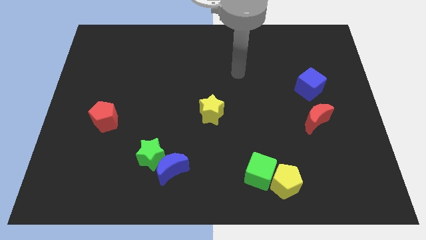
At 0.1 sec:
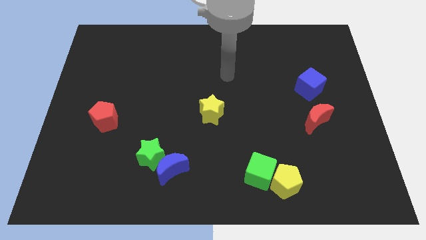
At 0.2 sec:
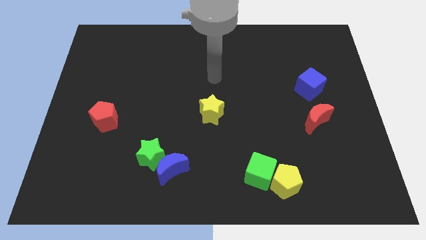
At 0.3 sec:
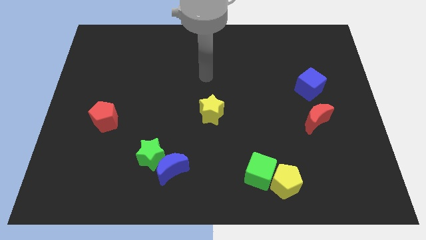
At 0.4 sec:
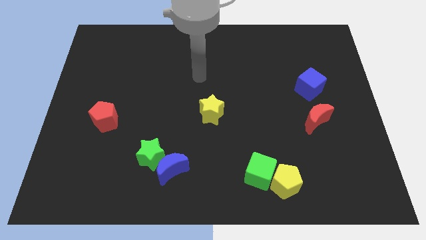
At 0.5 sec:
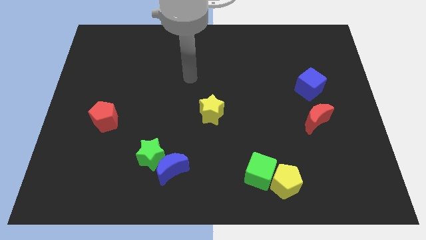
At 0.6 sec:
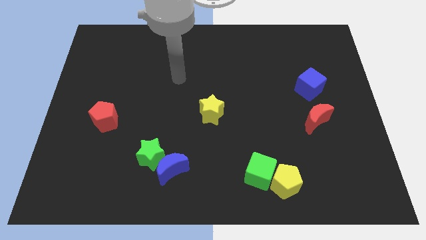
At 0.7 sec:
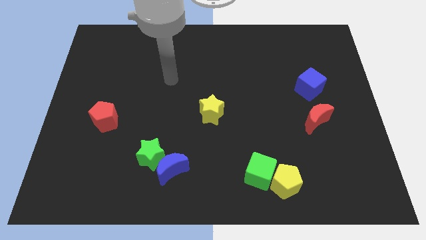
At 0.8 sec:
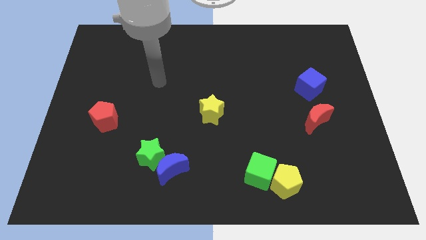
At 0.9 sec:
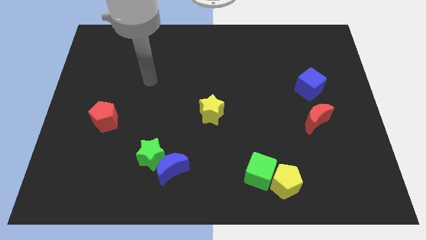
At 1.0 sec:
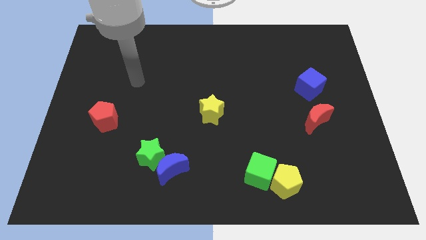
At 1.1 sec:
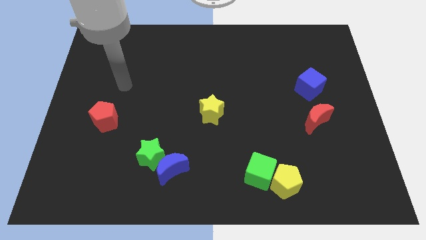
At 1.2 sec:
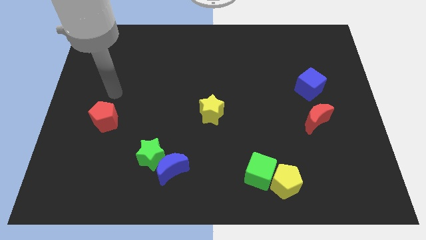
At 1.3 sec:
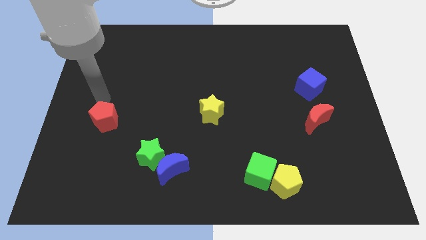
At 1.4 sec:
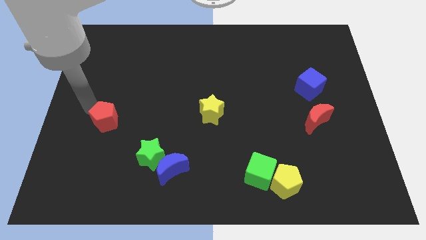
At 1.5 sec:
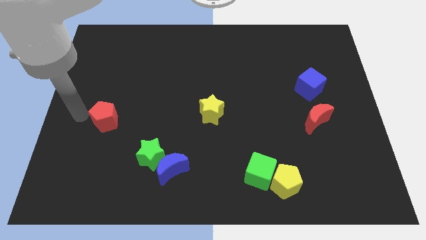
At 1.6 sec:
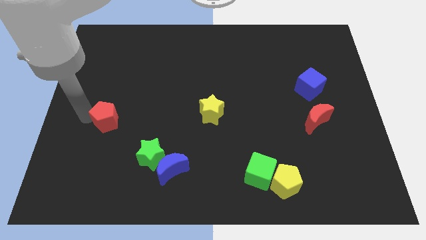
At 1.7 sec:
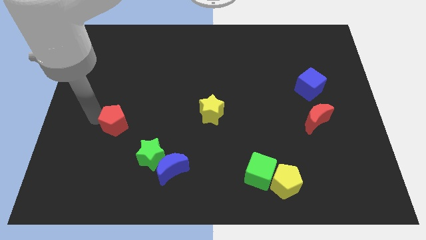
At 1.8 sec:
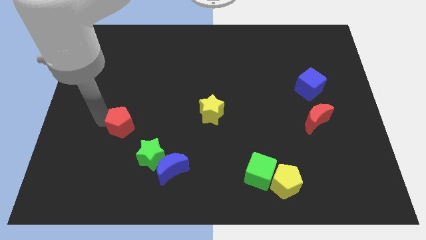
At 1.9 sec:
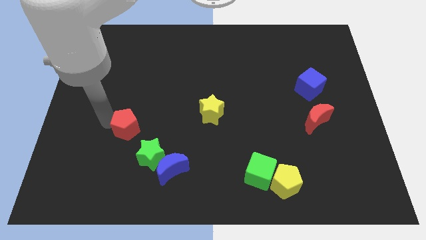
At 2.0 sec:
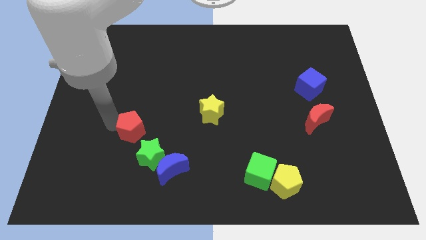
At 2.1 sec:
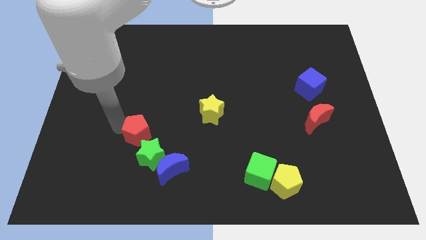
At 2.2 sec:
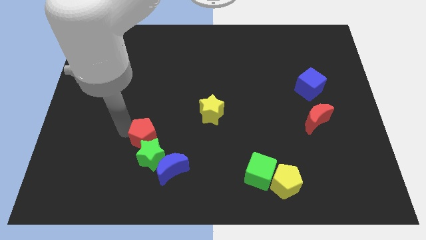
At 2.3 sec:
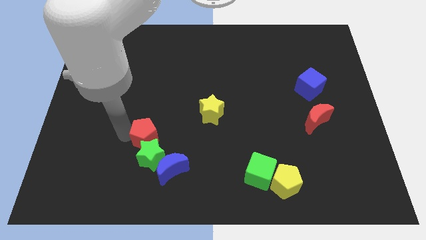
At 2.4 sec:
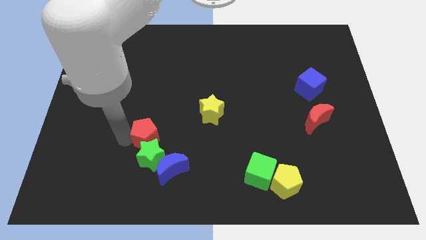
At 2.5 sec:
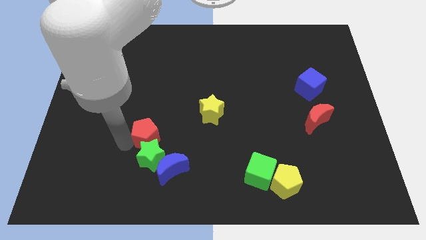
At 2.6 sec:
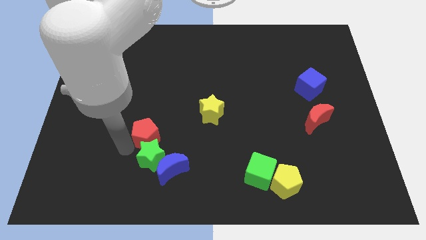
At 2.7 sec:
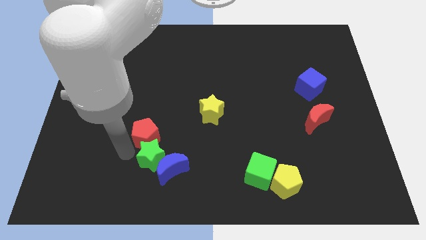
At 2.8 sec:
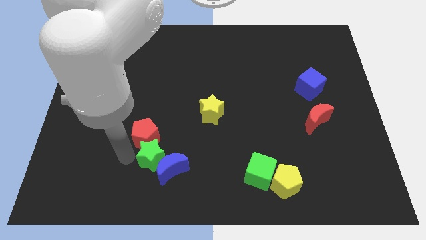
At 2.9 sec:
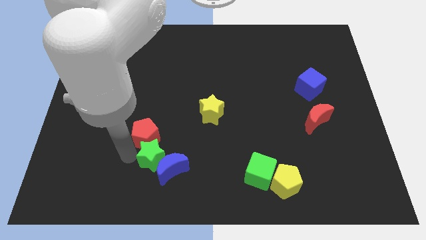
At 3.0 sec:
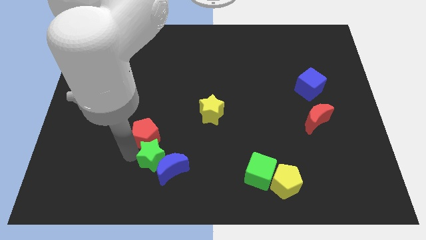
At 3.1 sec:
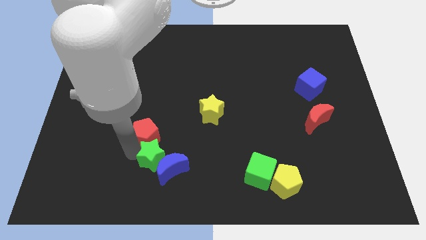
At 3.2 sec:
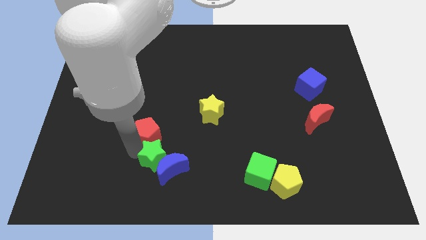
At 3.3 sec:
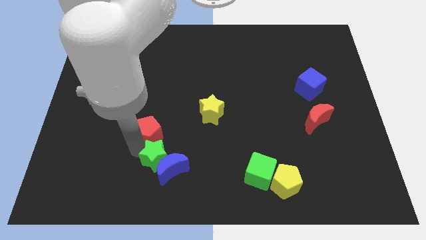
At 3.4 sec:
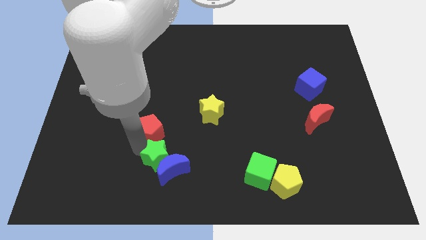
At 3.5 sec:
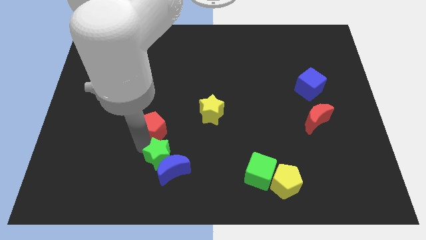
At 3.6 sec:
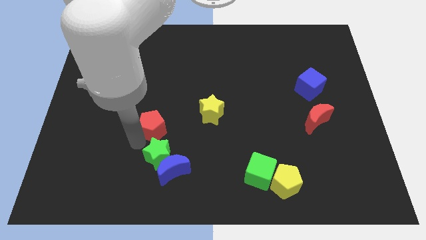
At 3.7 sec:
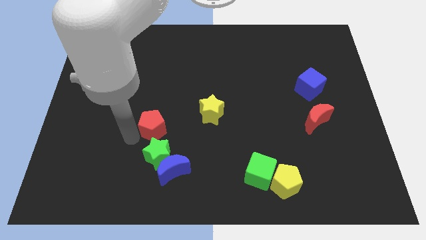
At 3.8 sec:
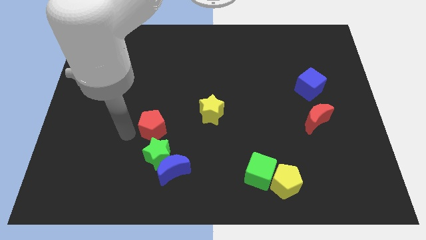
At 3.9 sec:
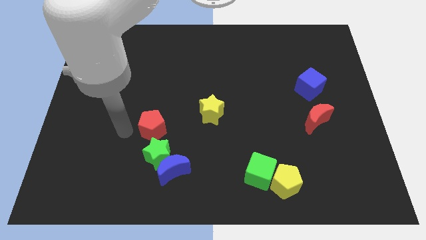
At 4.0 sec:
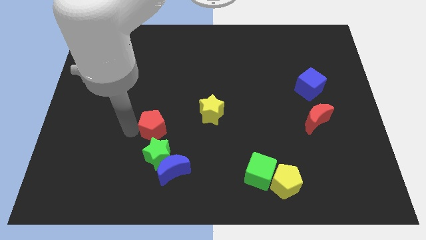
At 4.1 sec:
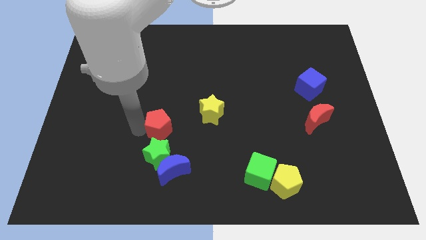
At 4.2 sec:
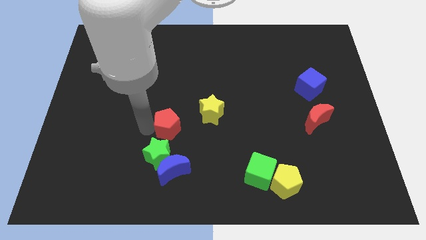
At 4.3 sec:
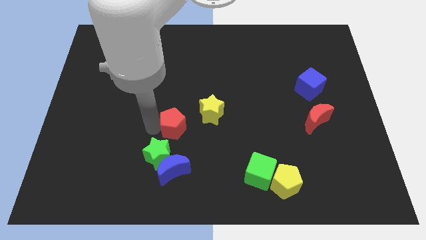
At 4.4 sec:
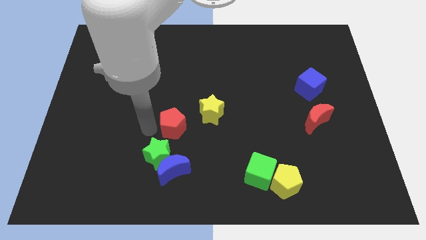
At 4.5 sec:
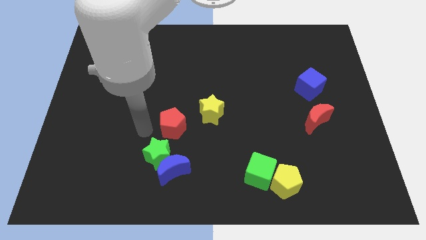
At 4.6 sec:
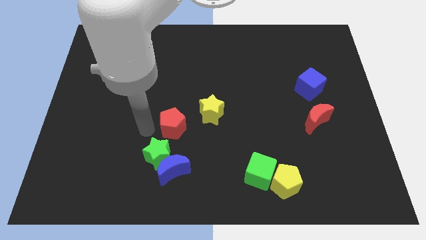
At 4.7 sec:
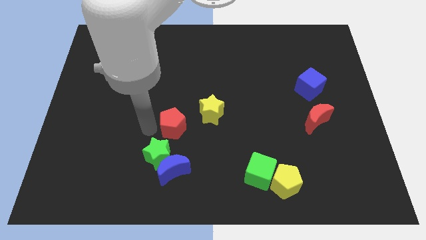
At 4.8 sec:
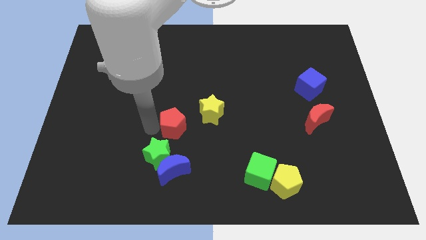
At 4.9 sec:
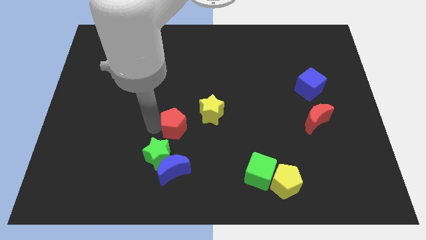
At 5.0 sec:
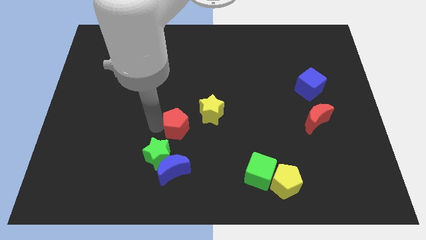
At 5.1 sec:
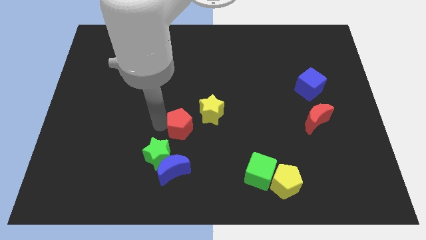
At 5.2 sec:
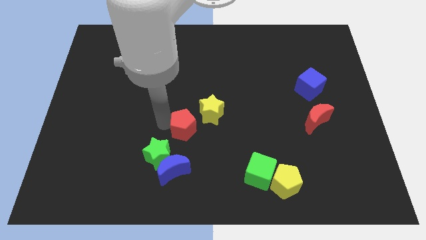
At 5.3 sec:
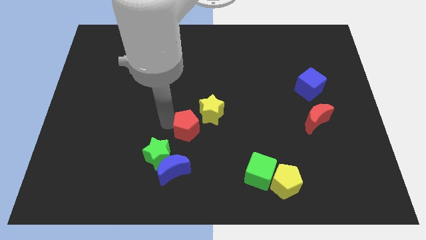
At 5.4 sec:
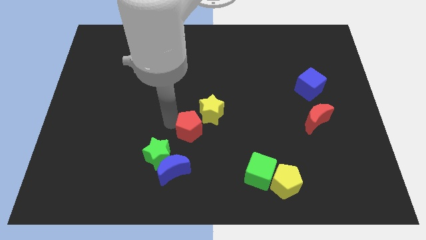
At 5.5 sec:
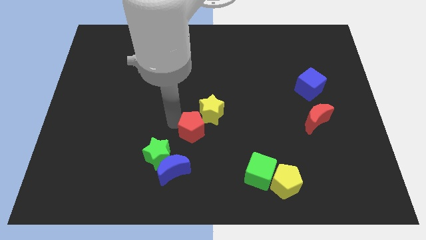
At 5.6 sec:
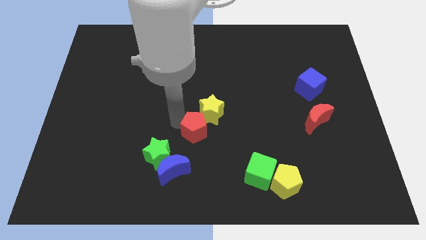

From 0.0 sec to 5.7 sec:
slide the red pentagon right

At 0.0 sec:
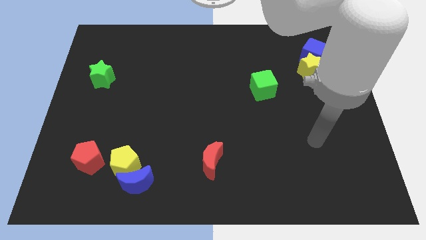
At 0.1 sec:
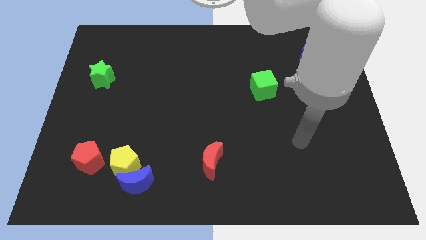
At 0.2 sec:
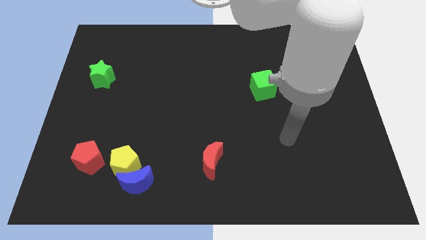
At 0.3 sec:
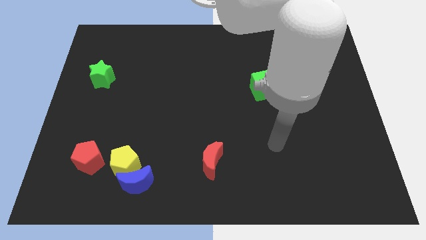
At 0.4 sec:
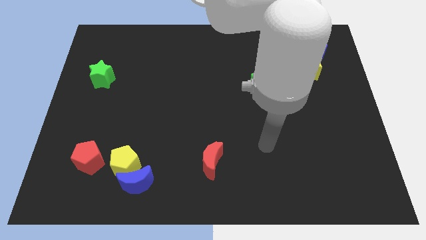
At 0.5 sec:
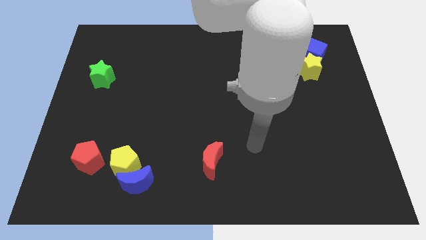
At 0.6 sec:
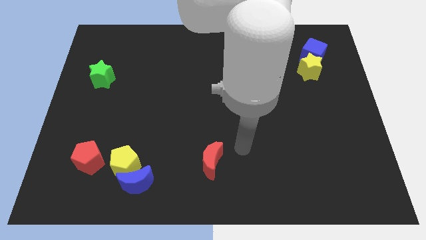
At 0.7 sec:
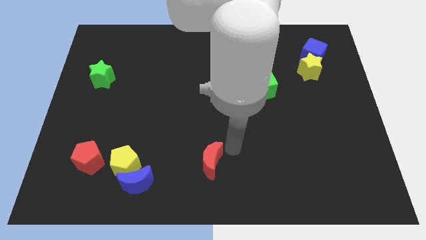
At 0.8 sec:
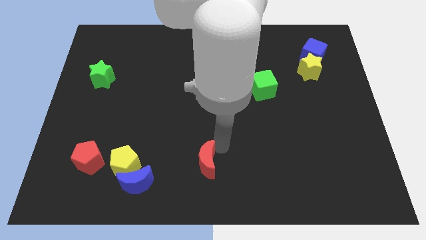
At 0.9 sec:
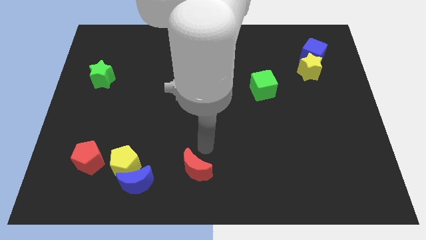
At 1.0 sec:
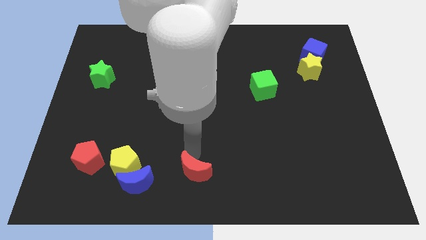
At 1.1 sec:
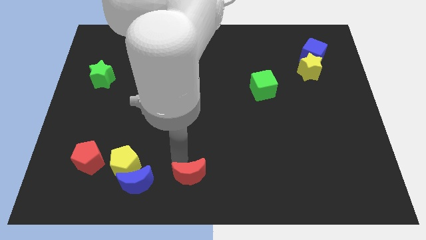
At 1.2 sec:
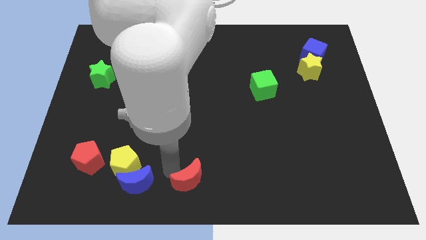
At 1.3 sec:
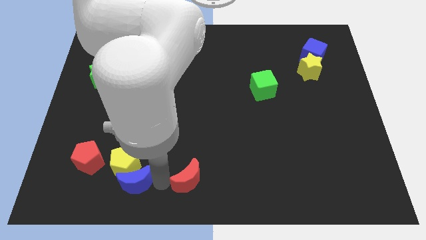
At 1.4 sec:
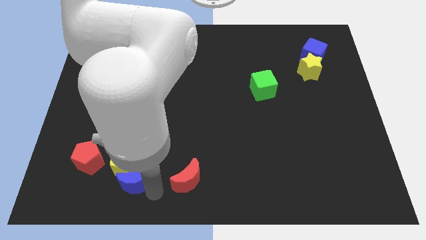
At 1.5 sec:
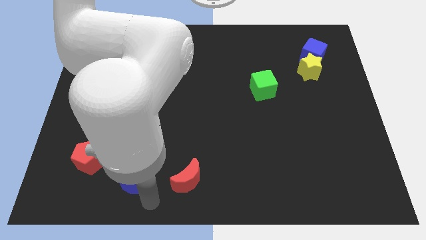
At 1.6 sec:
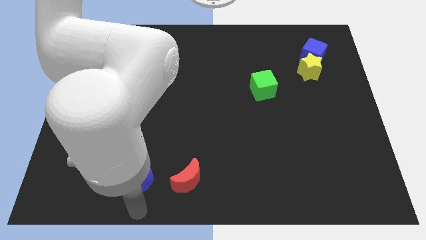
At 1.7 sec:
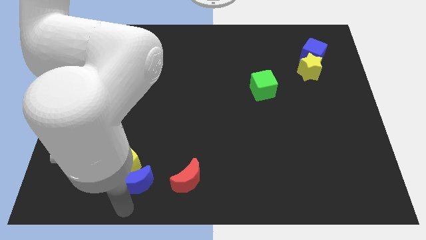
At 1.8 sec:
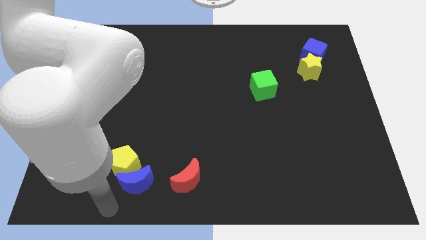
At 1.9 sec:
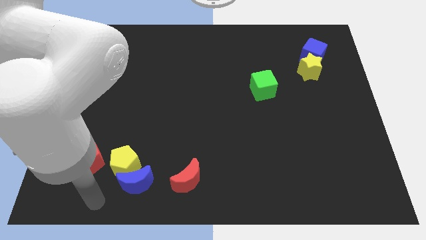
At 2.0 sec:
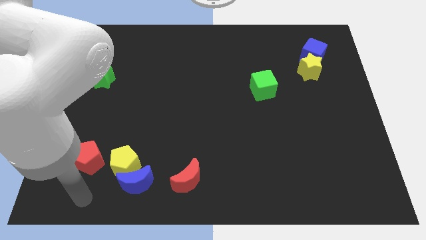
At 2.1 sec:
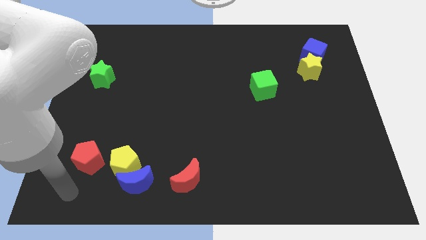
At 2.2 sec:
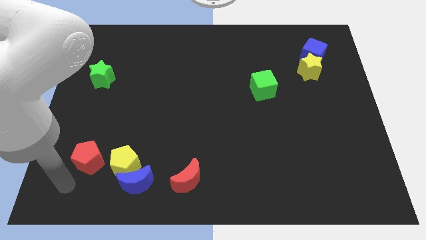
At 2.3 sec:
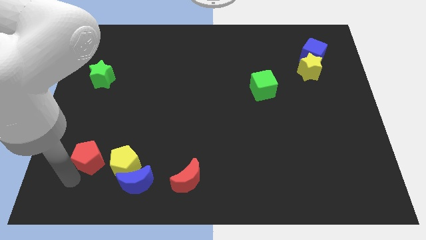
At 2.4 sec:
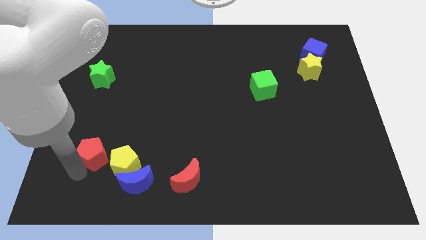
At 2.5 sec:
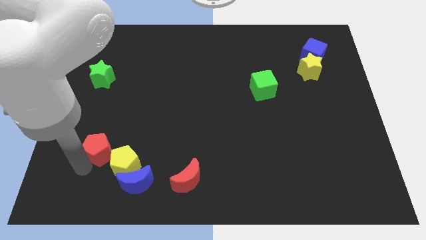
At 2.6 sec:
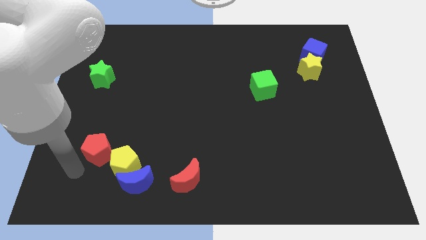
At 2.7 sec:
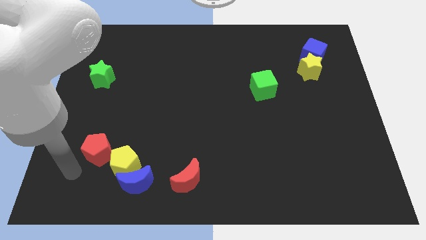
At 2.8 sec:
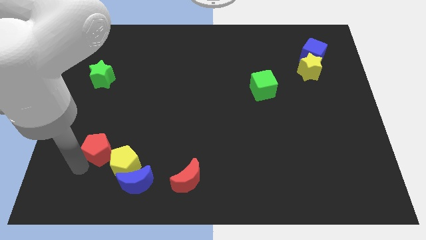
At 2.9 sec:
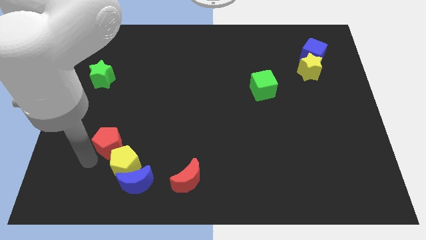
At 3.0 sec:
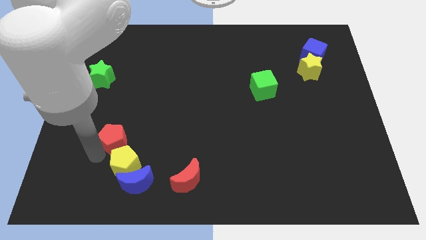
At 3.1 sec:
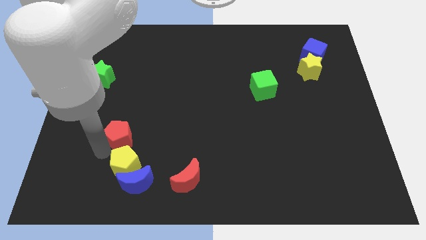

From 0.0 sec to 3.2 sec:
slightly push the red pentagon upwards and then right
